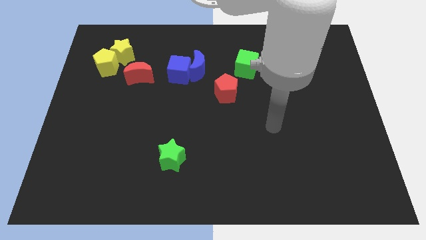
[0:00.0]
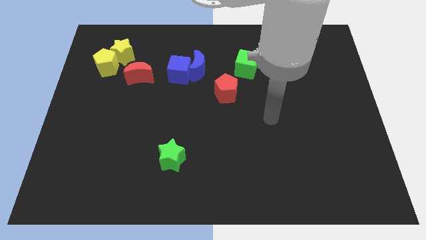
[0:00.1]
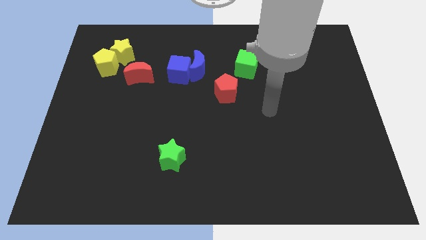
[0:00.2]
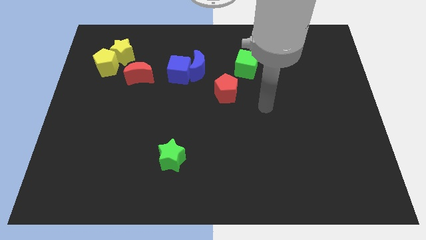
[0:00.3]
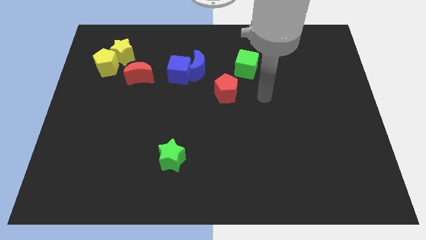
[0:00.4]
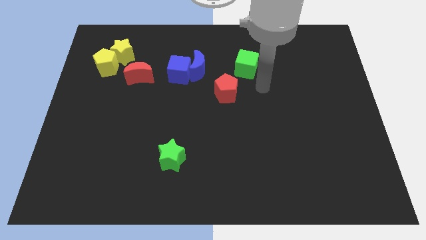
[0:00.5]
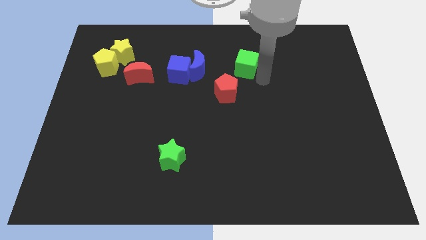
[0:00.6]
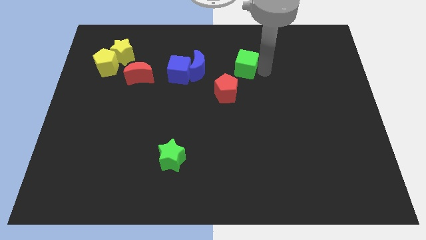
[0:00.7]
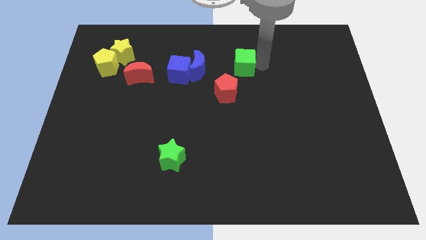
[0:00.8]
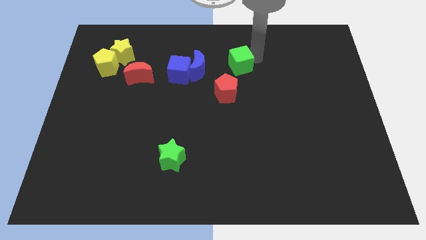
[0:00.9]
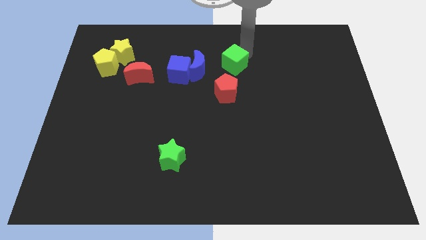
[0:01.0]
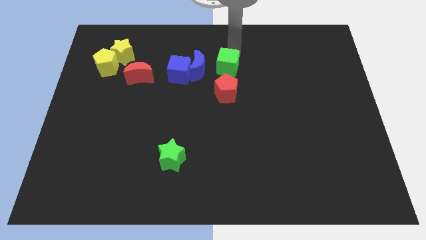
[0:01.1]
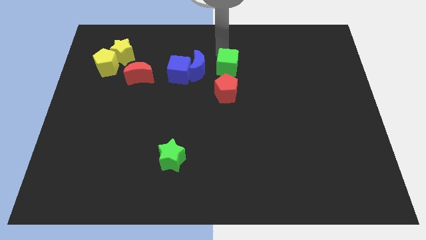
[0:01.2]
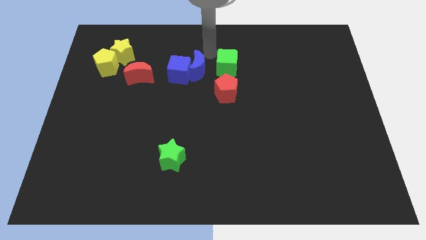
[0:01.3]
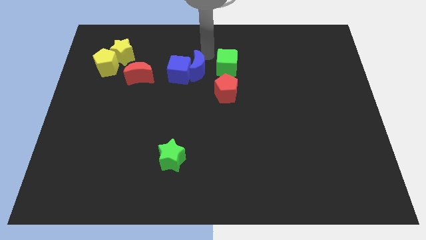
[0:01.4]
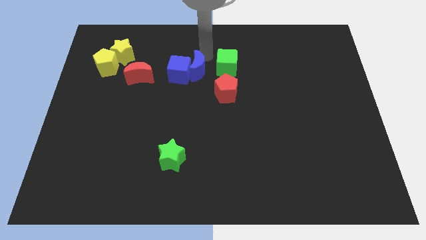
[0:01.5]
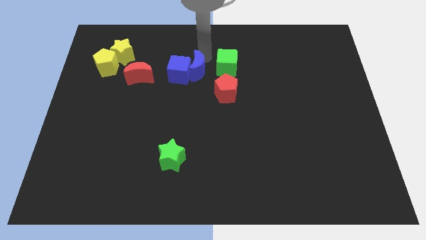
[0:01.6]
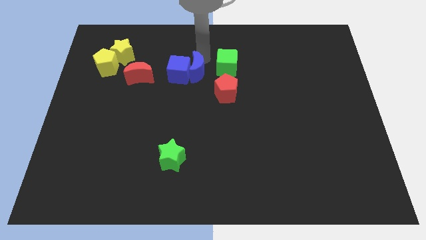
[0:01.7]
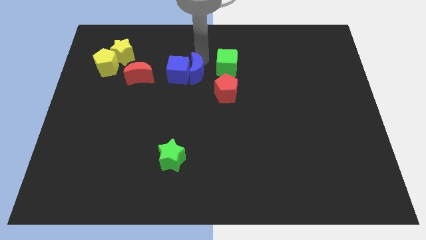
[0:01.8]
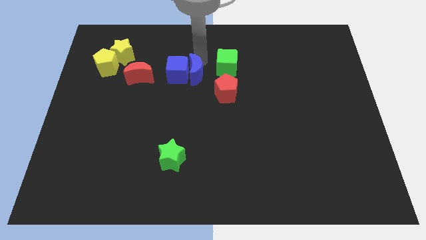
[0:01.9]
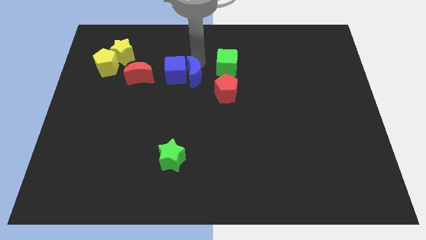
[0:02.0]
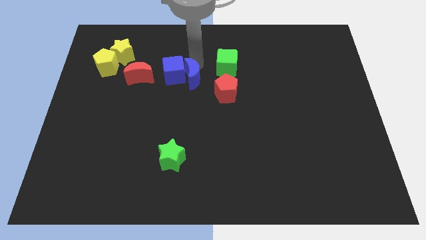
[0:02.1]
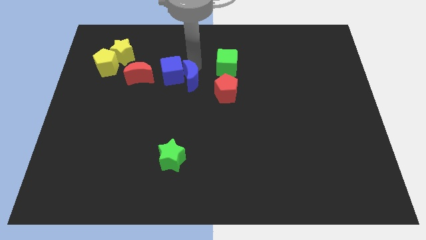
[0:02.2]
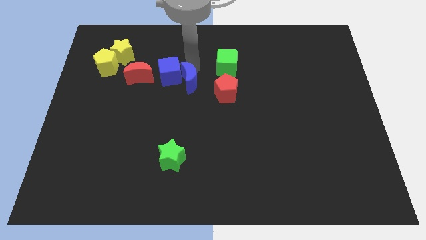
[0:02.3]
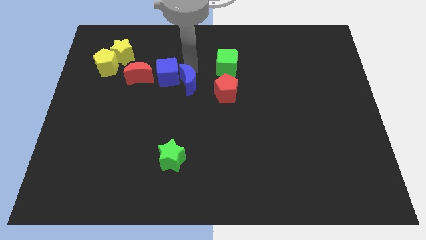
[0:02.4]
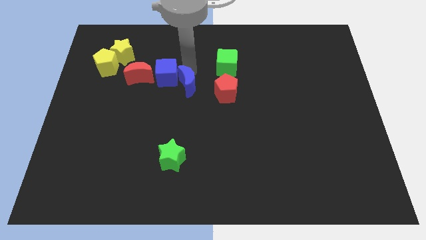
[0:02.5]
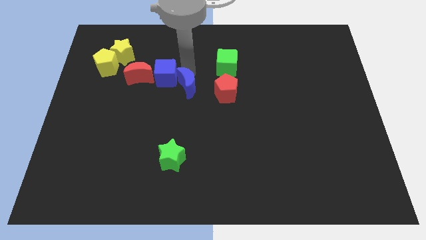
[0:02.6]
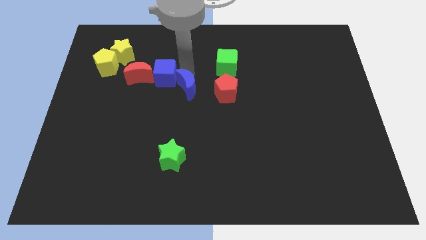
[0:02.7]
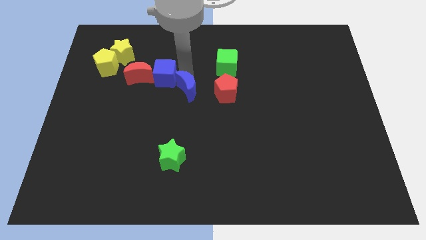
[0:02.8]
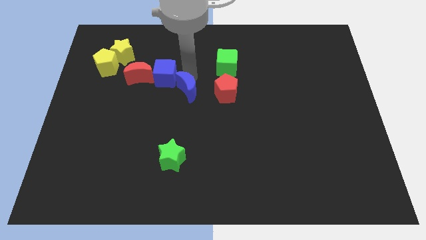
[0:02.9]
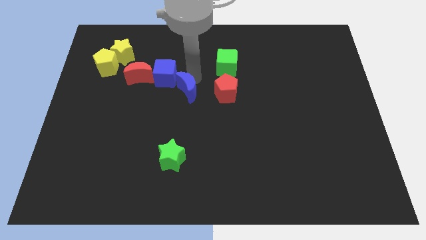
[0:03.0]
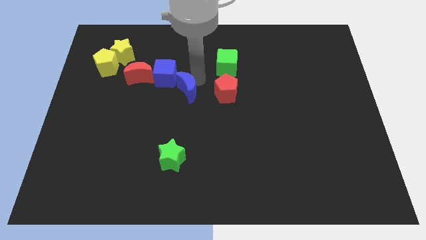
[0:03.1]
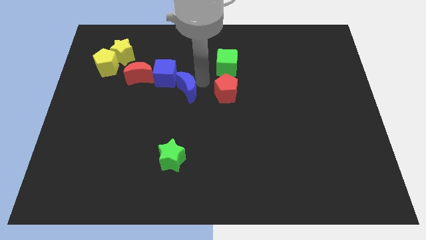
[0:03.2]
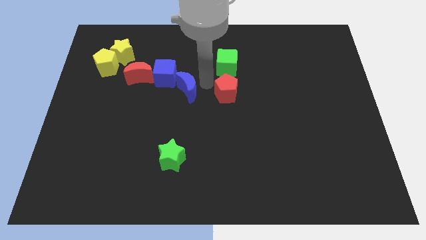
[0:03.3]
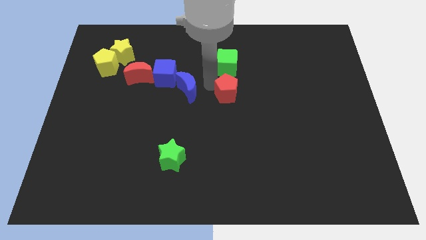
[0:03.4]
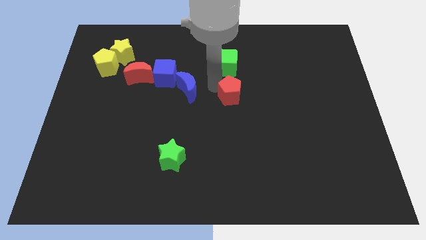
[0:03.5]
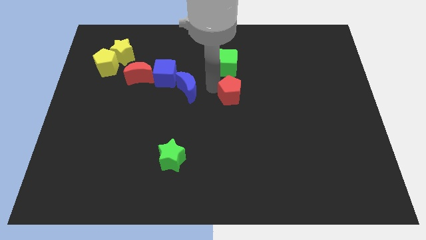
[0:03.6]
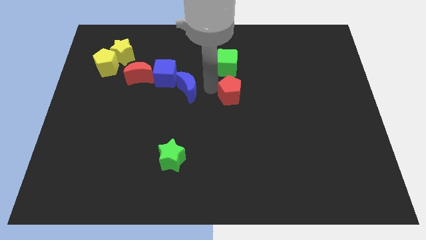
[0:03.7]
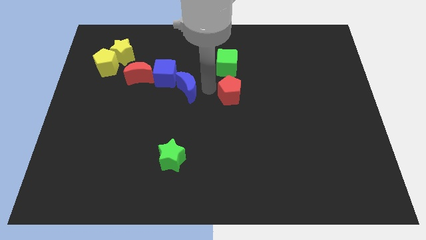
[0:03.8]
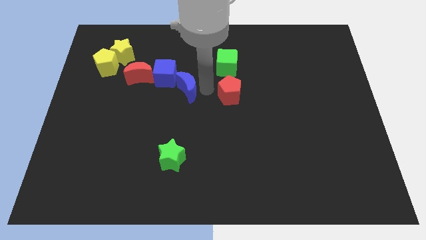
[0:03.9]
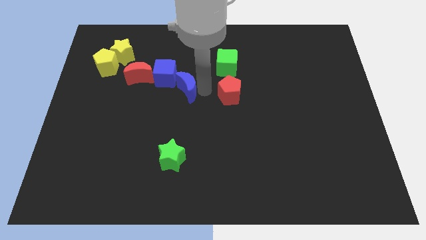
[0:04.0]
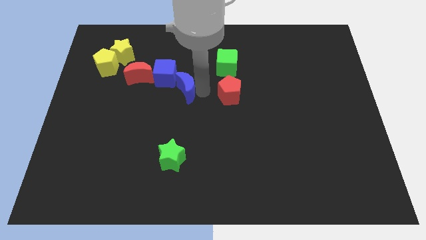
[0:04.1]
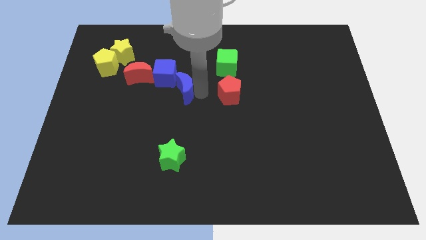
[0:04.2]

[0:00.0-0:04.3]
slightly move the blue moon down and then to the left

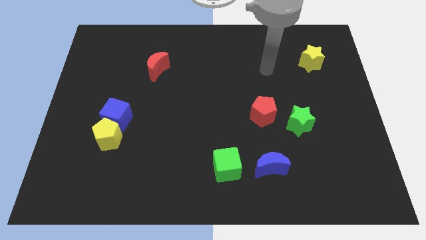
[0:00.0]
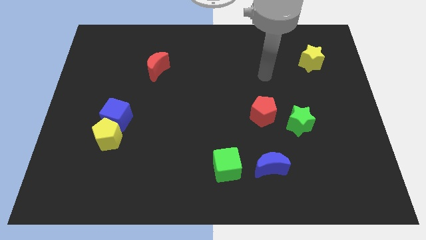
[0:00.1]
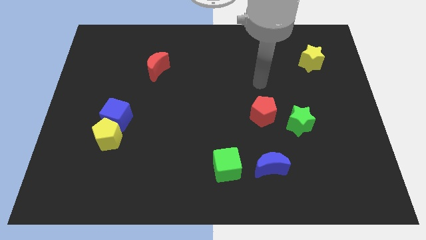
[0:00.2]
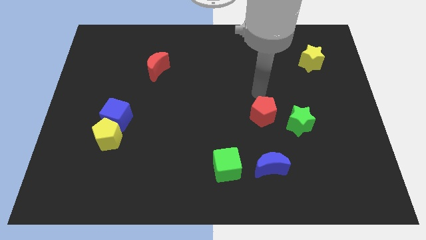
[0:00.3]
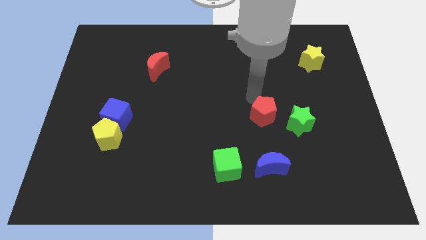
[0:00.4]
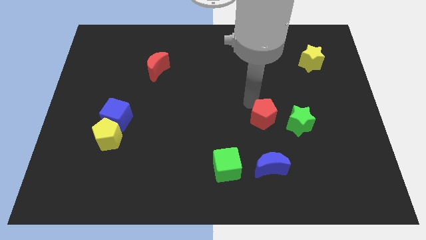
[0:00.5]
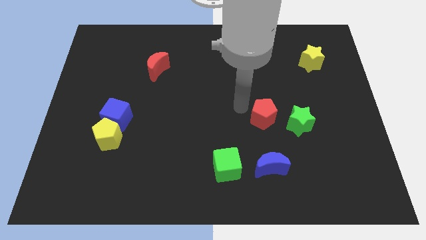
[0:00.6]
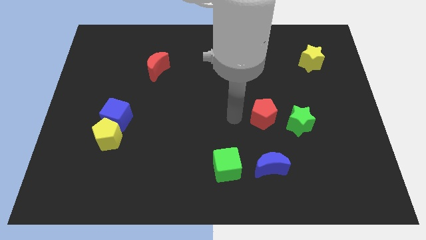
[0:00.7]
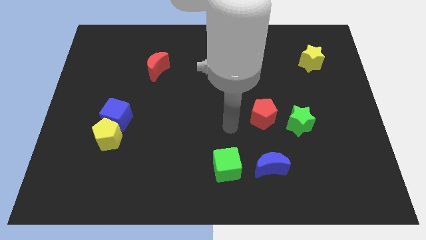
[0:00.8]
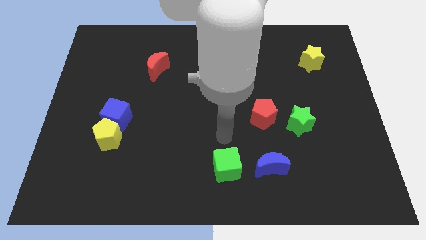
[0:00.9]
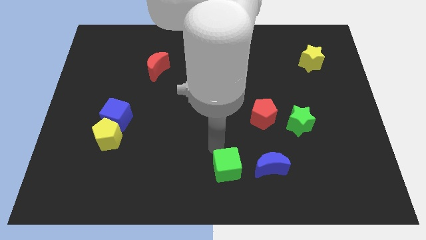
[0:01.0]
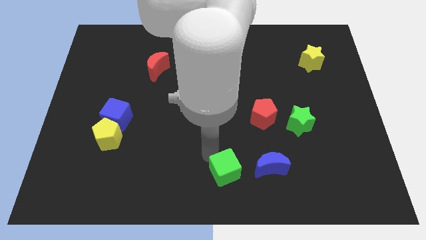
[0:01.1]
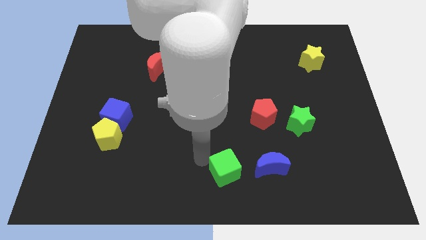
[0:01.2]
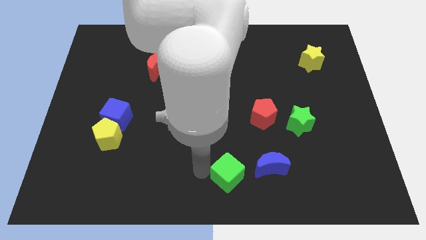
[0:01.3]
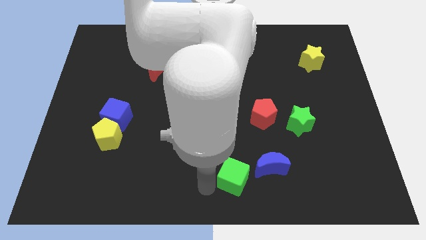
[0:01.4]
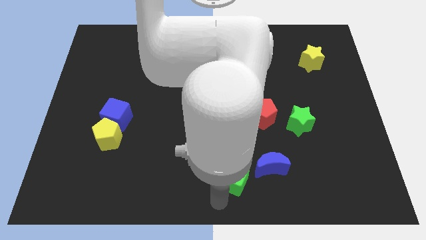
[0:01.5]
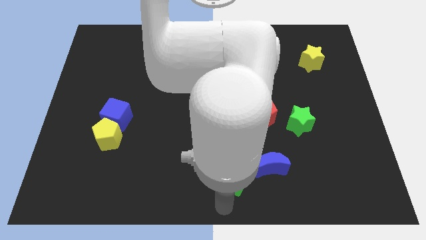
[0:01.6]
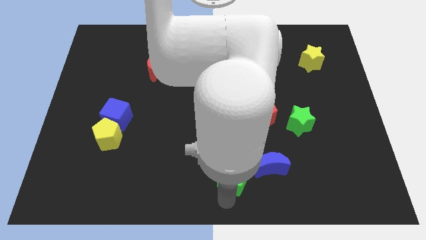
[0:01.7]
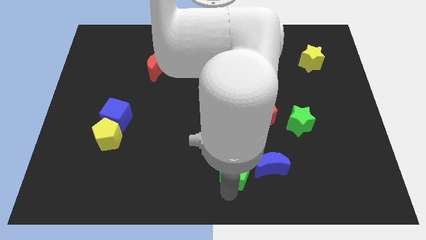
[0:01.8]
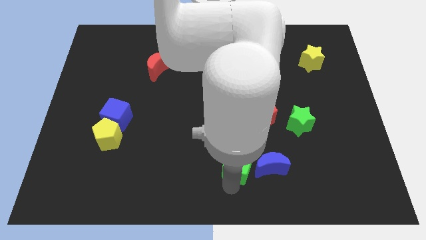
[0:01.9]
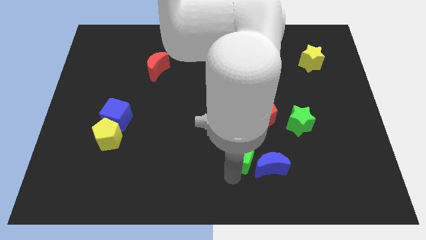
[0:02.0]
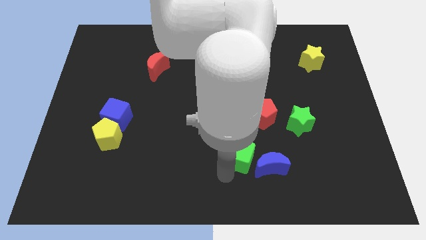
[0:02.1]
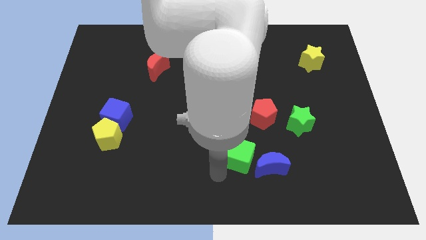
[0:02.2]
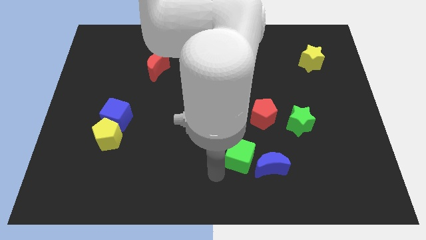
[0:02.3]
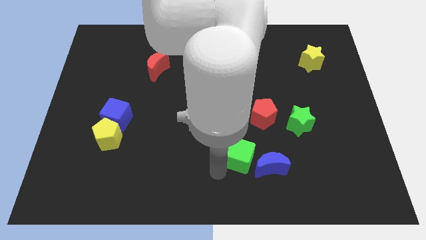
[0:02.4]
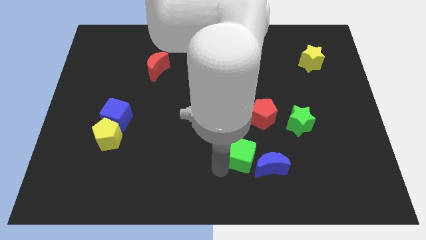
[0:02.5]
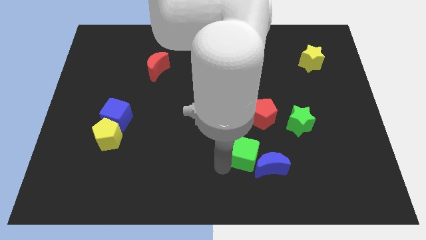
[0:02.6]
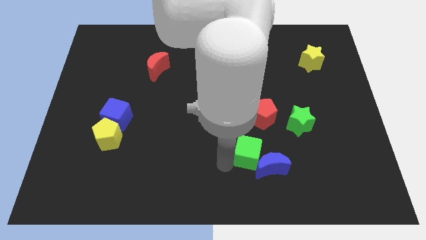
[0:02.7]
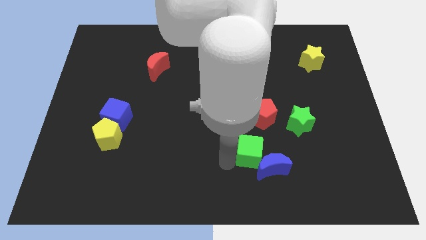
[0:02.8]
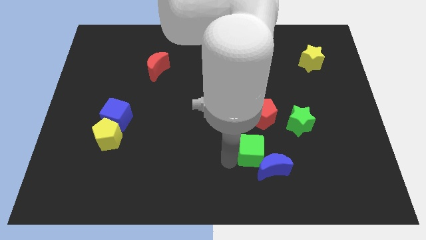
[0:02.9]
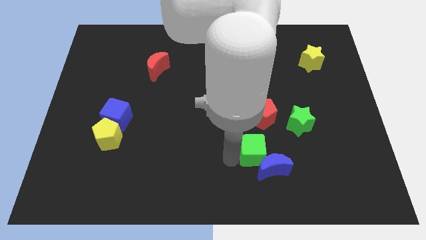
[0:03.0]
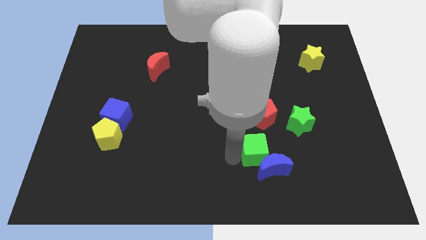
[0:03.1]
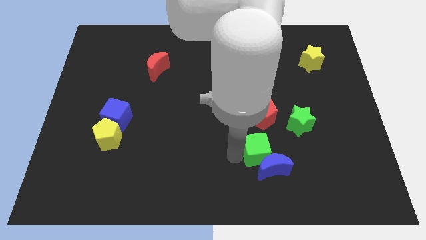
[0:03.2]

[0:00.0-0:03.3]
slide the green cube upwards and then to the right a little bit

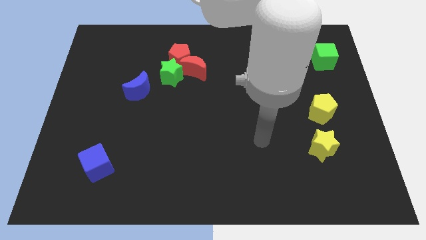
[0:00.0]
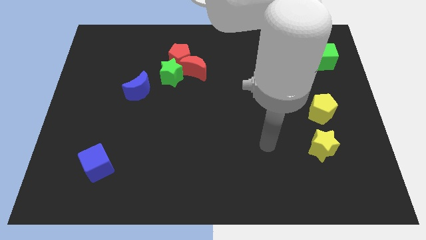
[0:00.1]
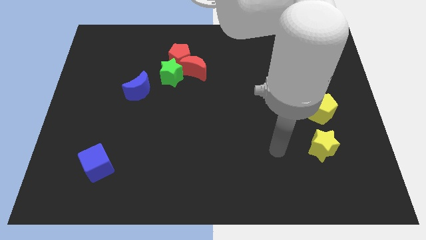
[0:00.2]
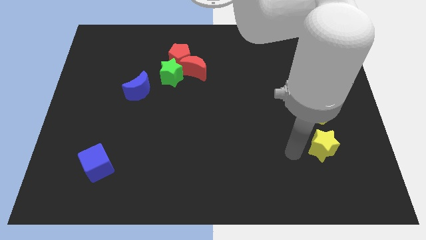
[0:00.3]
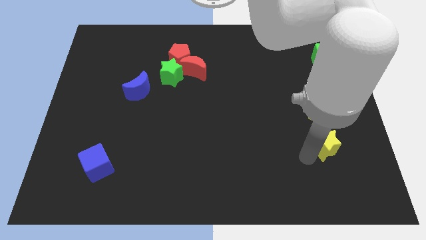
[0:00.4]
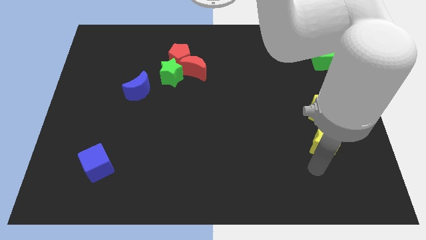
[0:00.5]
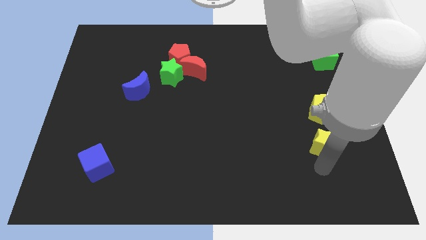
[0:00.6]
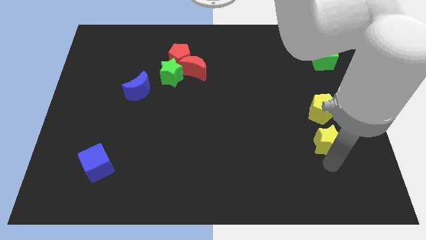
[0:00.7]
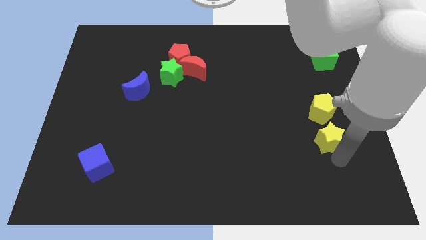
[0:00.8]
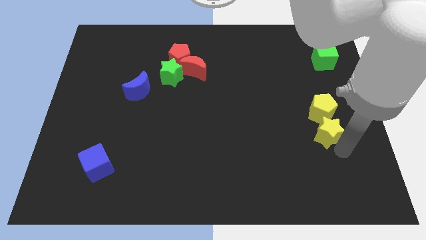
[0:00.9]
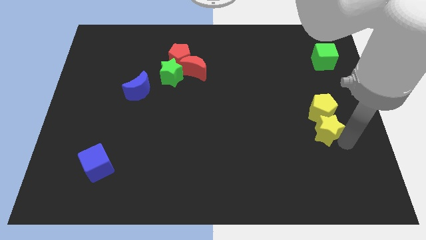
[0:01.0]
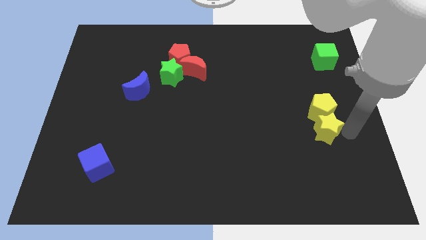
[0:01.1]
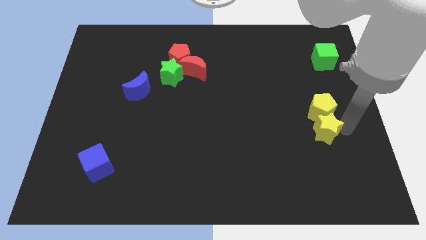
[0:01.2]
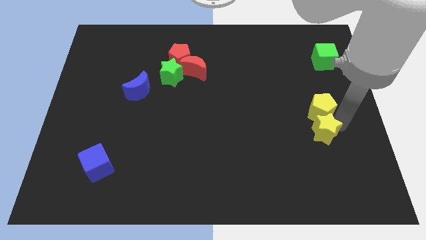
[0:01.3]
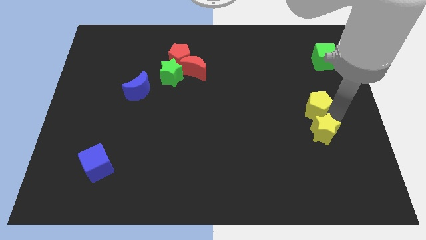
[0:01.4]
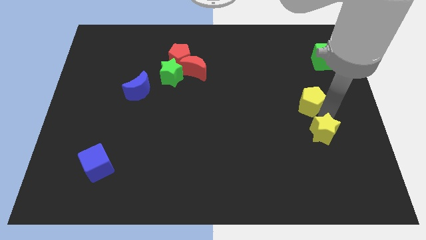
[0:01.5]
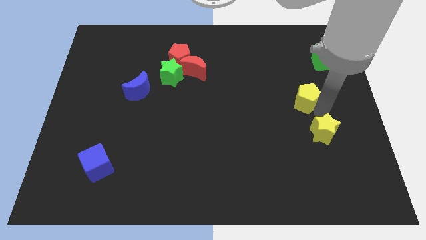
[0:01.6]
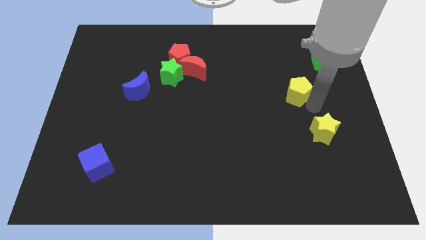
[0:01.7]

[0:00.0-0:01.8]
slightly slide the yellow pentagon upwards and left diagonally
